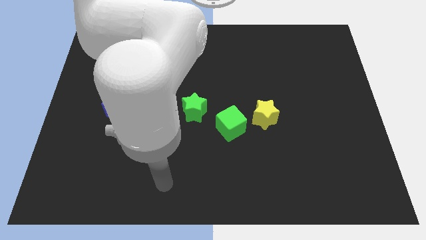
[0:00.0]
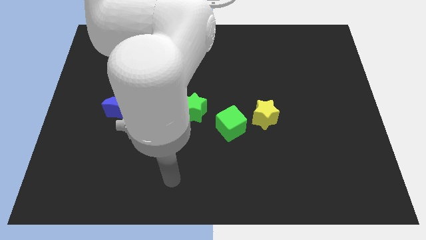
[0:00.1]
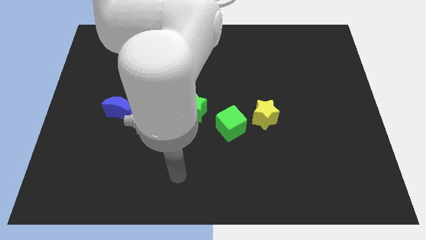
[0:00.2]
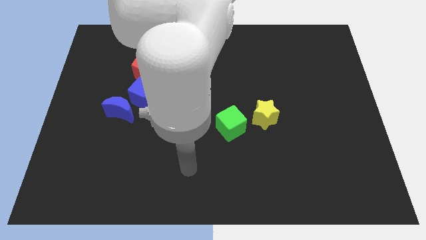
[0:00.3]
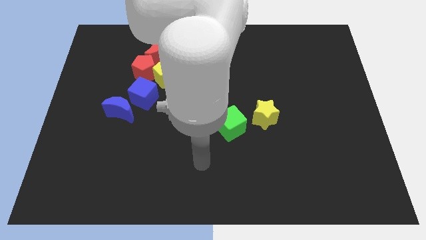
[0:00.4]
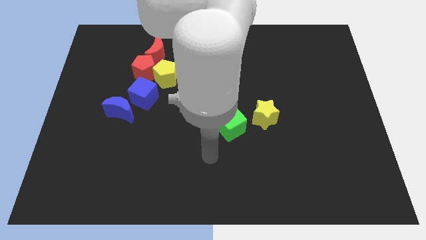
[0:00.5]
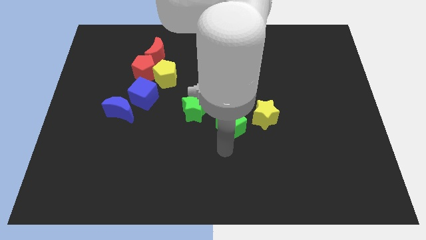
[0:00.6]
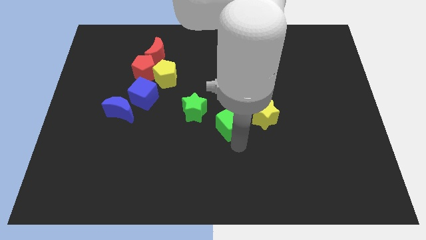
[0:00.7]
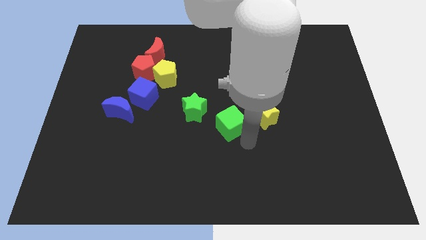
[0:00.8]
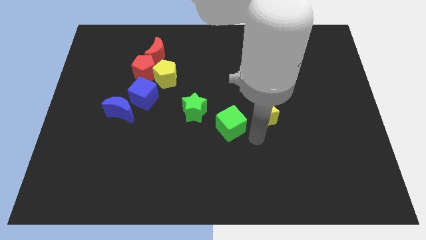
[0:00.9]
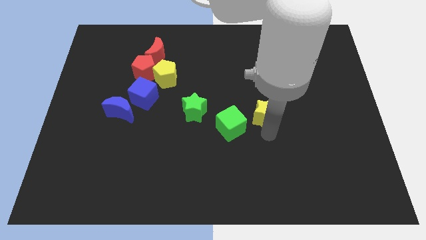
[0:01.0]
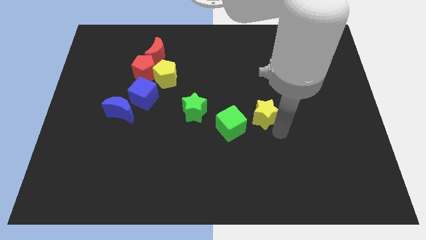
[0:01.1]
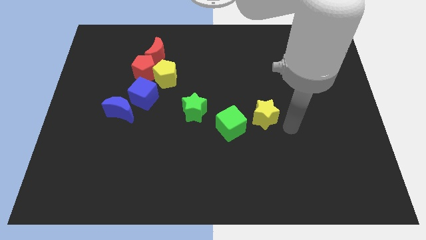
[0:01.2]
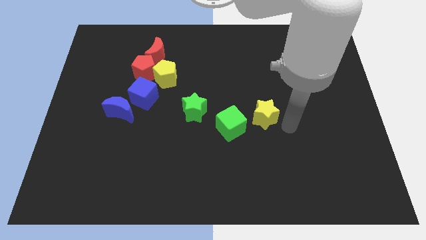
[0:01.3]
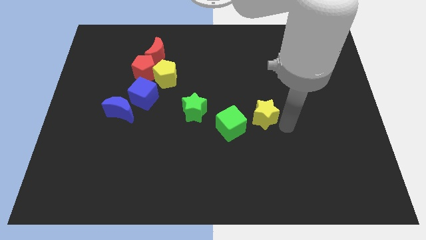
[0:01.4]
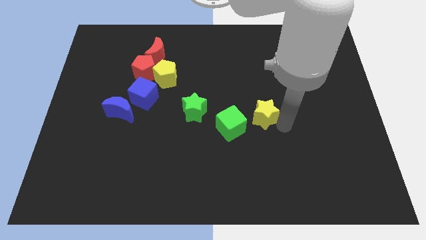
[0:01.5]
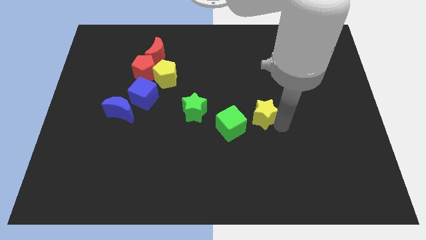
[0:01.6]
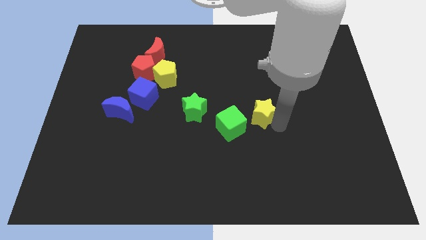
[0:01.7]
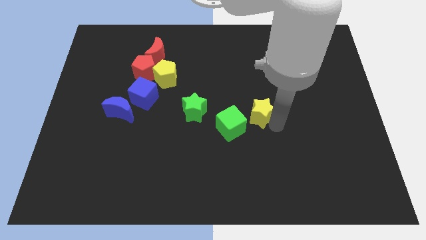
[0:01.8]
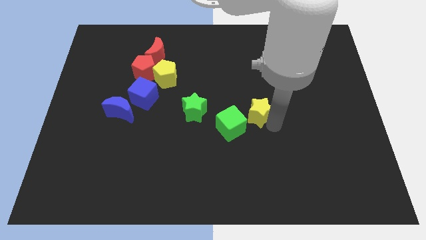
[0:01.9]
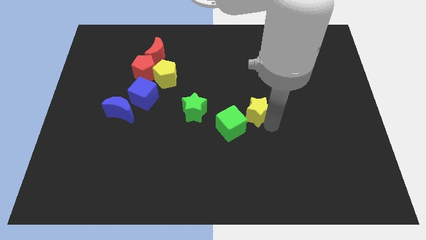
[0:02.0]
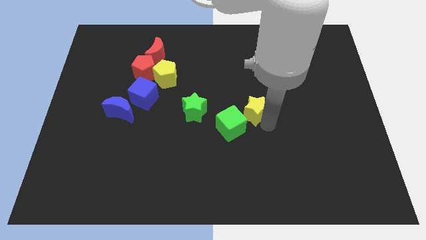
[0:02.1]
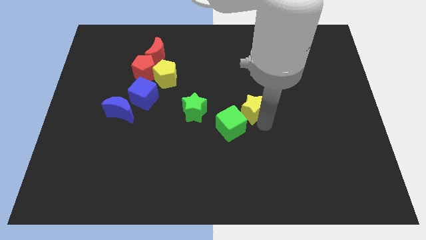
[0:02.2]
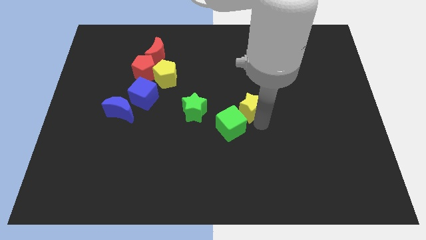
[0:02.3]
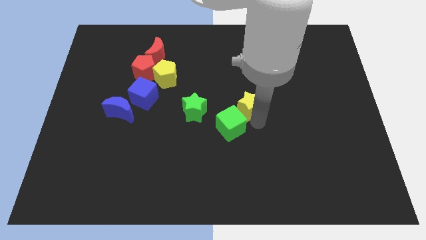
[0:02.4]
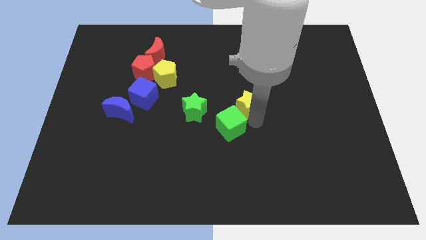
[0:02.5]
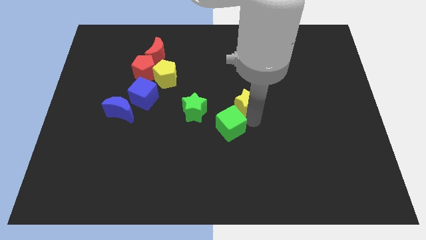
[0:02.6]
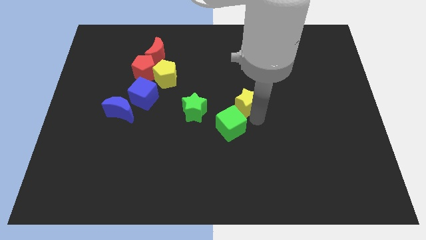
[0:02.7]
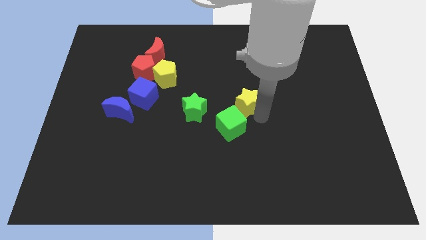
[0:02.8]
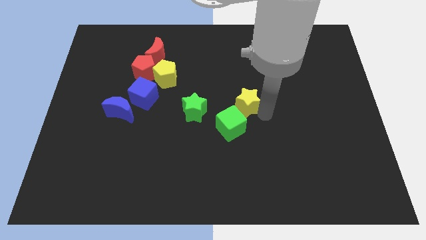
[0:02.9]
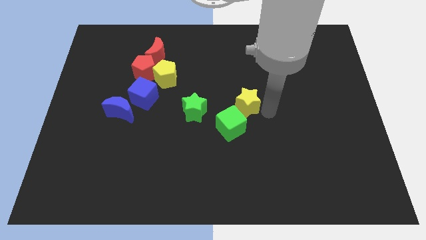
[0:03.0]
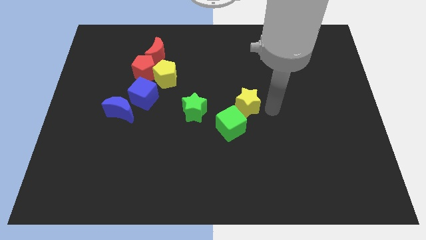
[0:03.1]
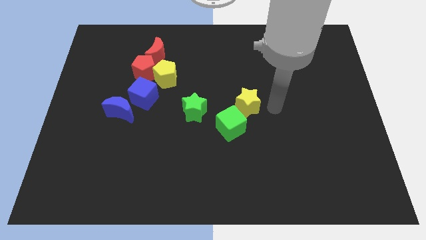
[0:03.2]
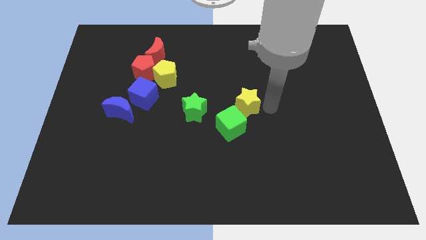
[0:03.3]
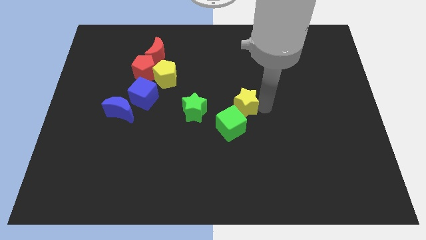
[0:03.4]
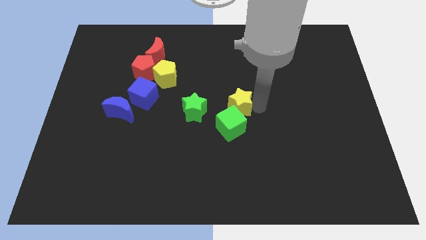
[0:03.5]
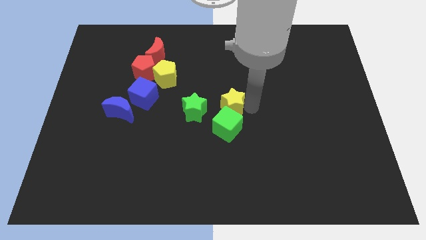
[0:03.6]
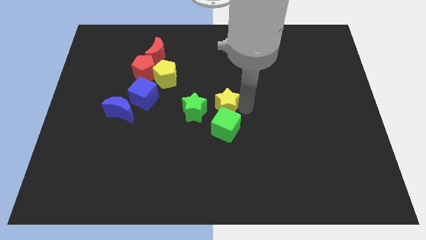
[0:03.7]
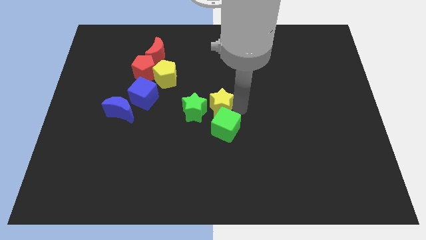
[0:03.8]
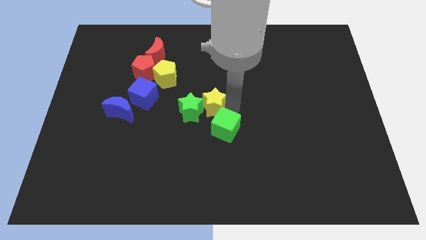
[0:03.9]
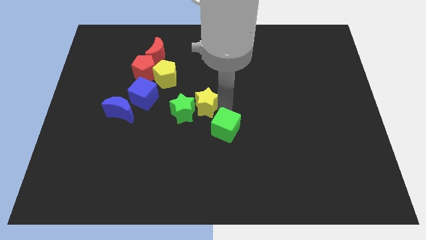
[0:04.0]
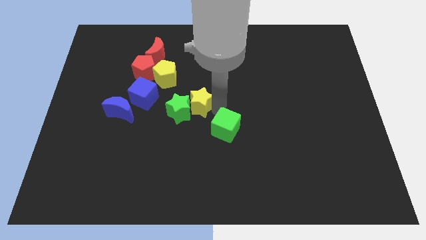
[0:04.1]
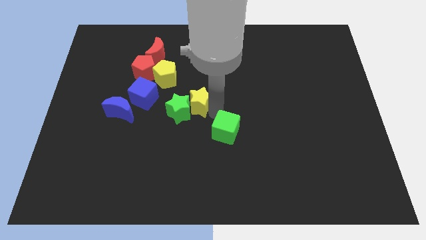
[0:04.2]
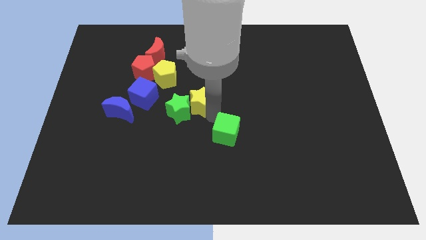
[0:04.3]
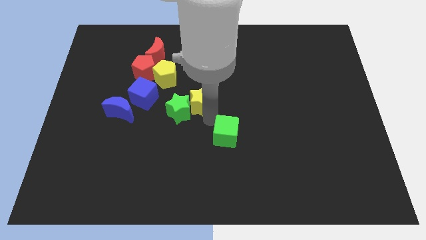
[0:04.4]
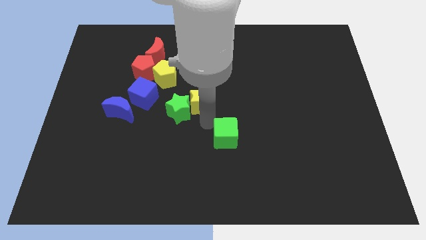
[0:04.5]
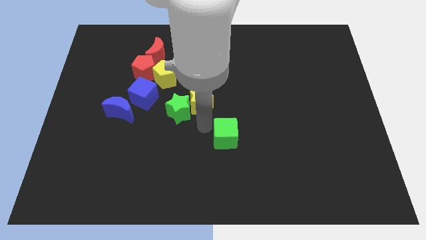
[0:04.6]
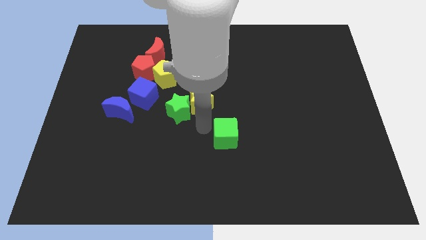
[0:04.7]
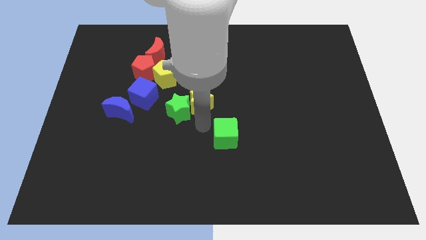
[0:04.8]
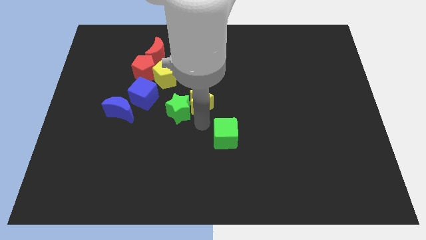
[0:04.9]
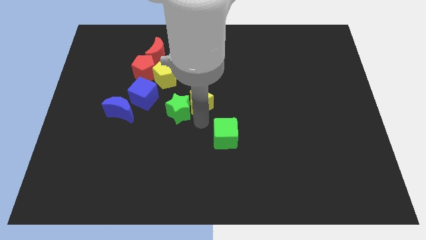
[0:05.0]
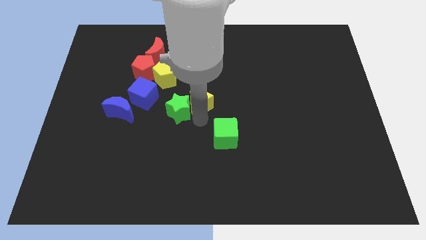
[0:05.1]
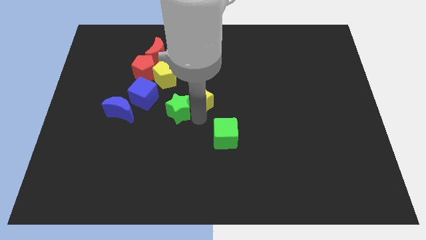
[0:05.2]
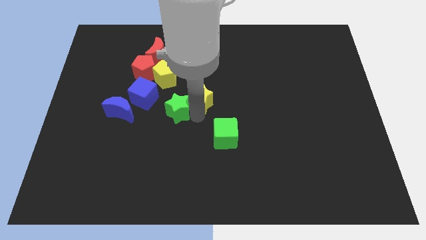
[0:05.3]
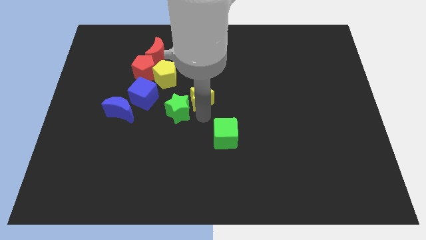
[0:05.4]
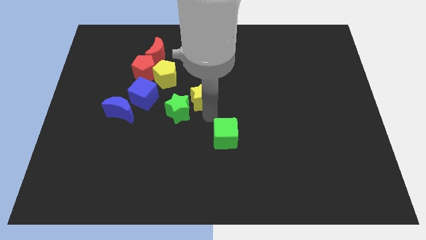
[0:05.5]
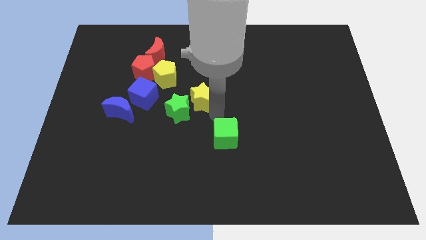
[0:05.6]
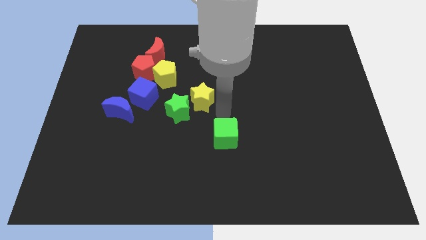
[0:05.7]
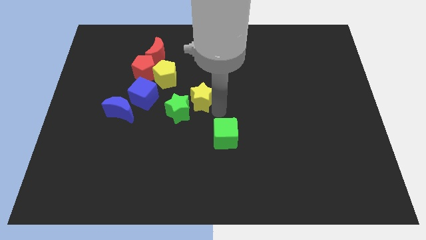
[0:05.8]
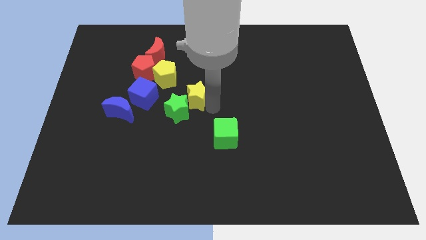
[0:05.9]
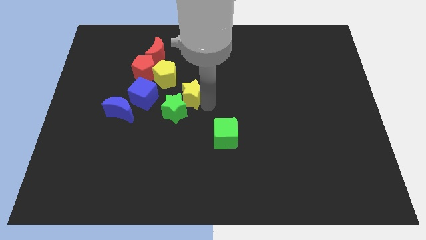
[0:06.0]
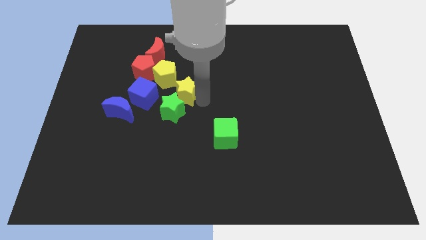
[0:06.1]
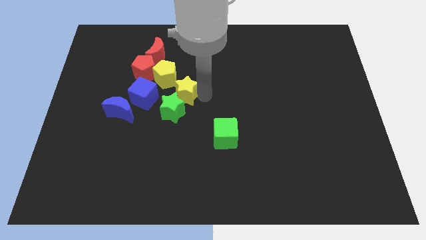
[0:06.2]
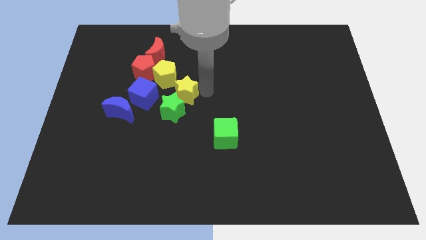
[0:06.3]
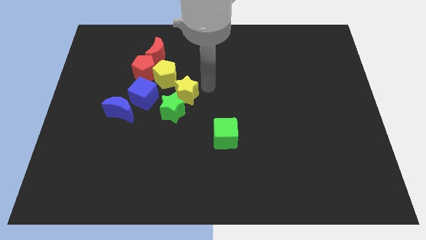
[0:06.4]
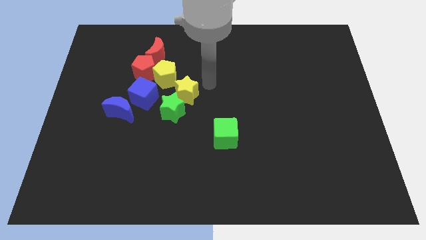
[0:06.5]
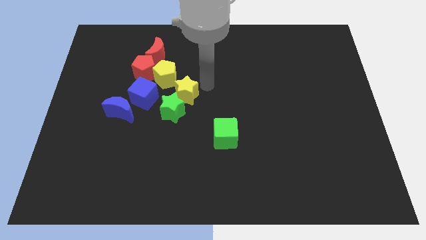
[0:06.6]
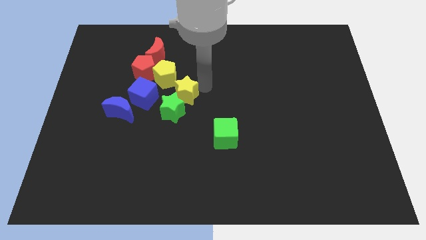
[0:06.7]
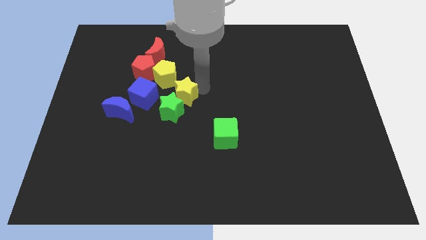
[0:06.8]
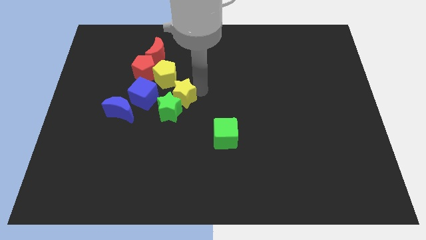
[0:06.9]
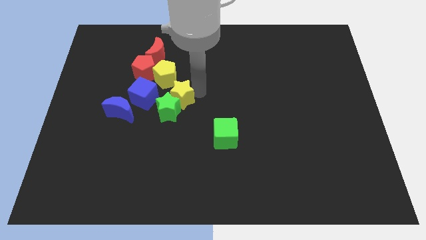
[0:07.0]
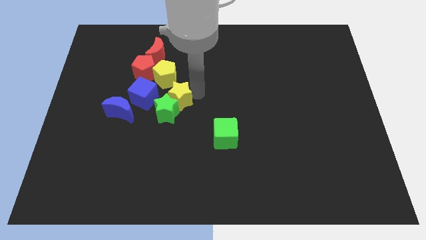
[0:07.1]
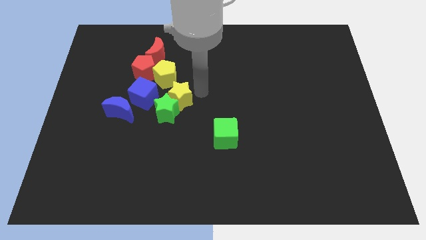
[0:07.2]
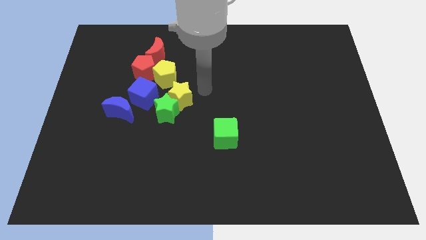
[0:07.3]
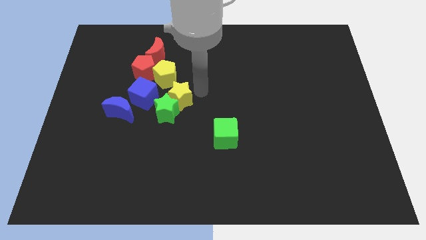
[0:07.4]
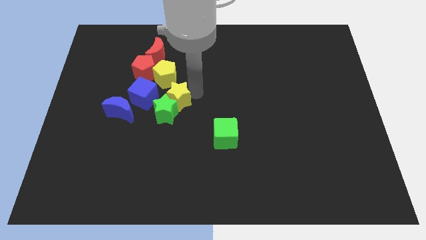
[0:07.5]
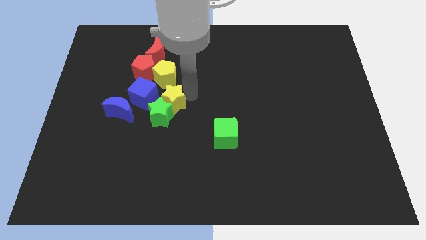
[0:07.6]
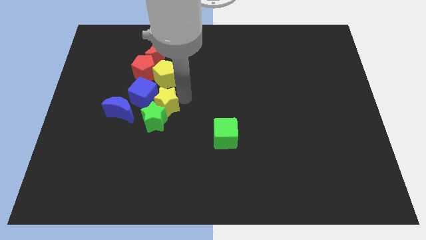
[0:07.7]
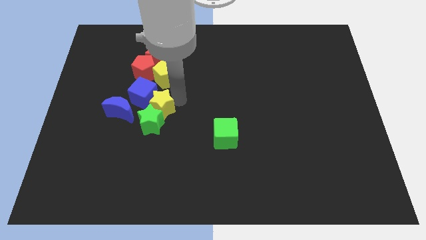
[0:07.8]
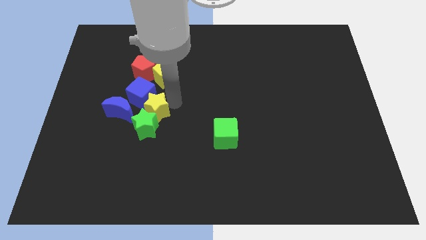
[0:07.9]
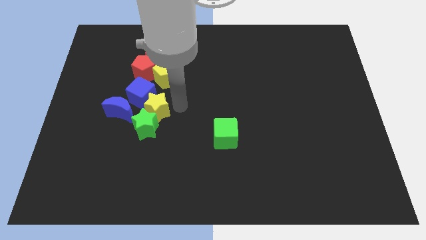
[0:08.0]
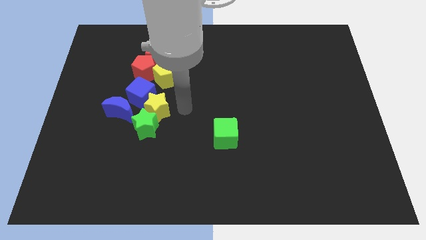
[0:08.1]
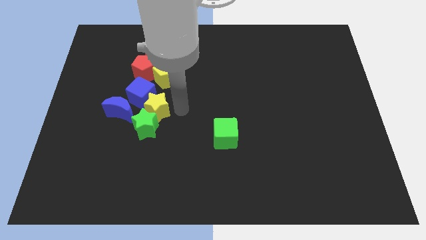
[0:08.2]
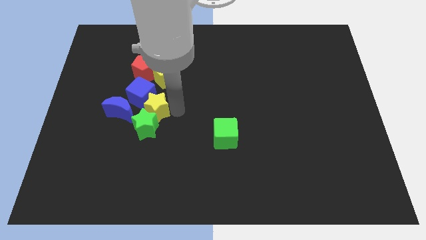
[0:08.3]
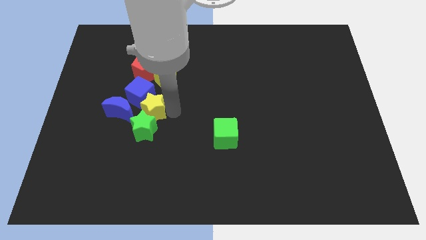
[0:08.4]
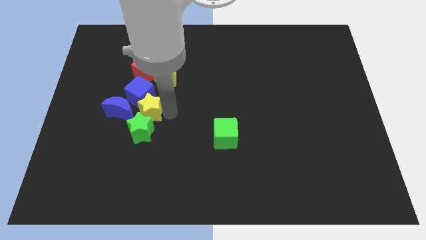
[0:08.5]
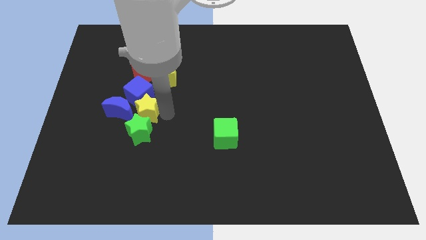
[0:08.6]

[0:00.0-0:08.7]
put the yellow star next to the blue moon
